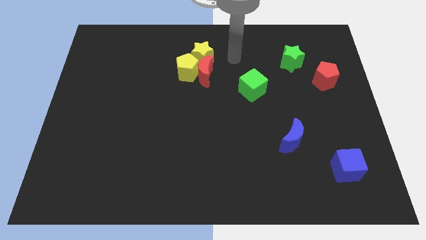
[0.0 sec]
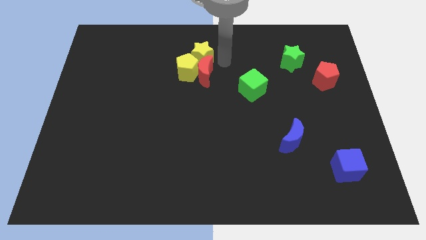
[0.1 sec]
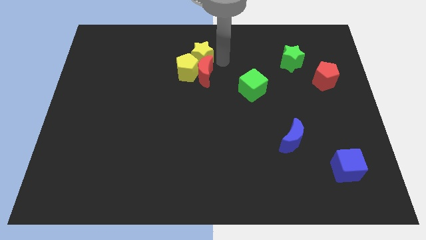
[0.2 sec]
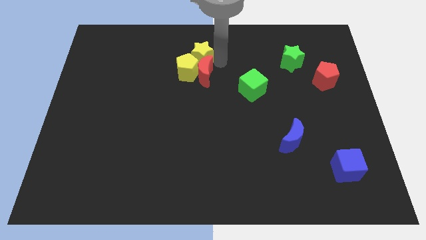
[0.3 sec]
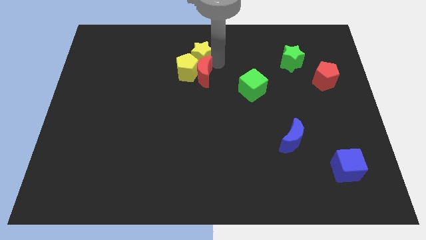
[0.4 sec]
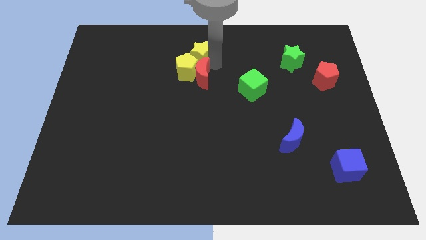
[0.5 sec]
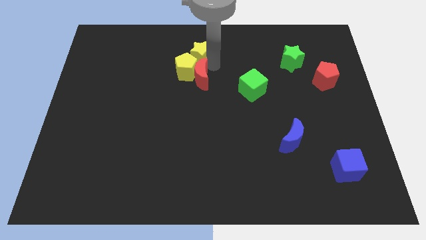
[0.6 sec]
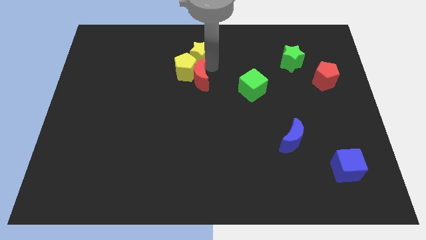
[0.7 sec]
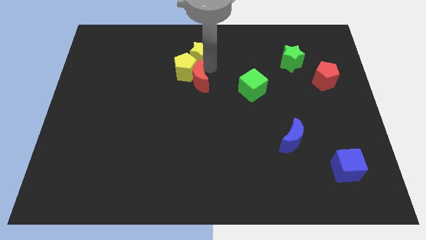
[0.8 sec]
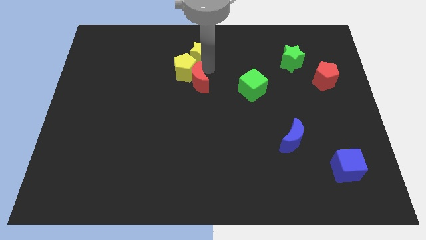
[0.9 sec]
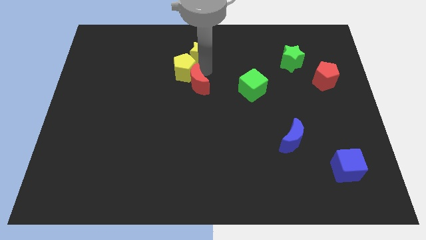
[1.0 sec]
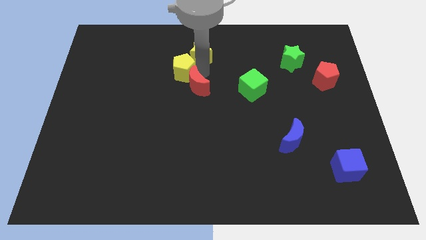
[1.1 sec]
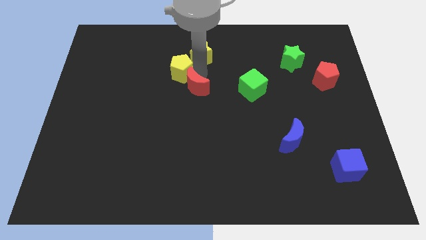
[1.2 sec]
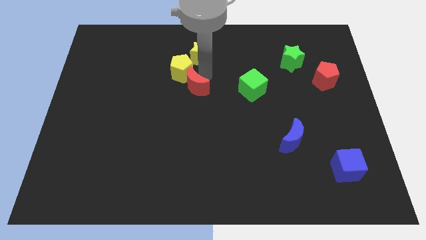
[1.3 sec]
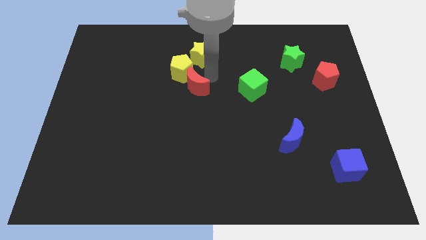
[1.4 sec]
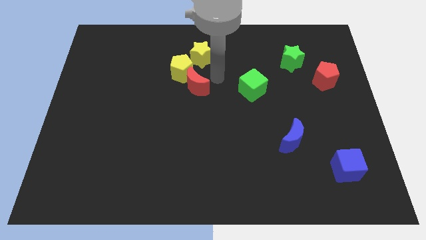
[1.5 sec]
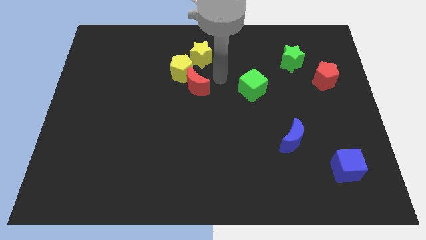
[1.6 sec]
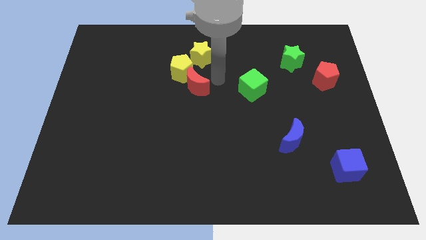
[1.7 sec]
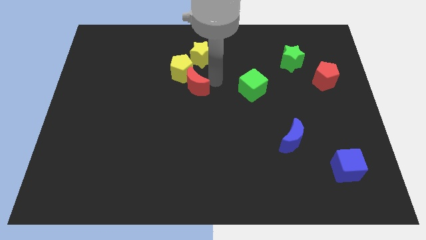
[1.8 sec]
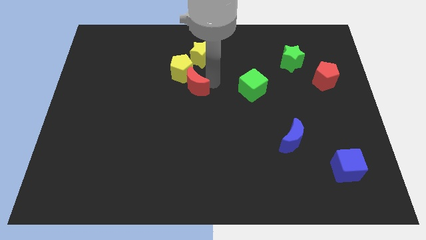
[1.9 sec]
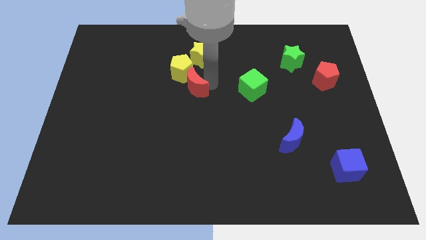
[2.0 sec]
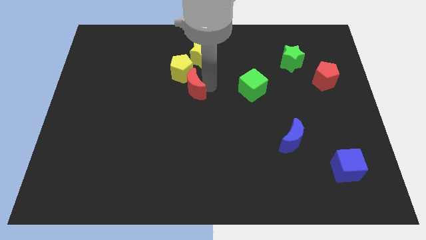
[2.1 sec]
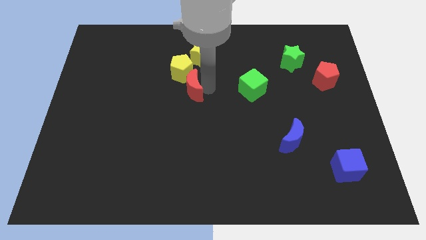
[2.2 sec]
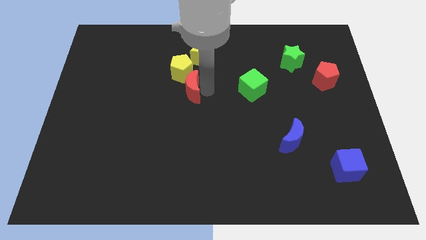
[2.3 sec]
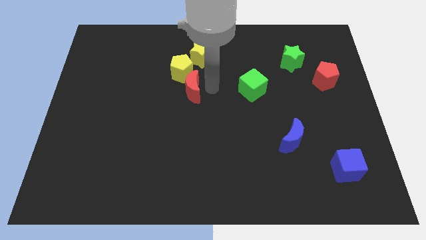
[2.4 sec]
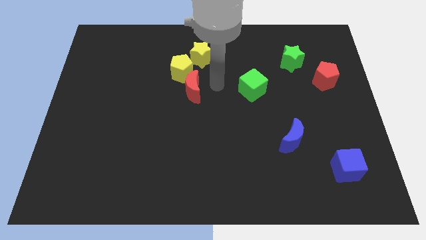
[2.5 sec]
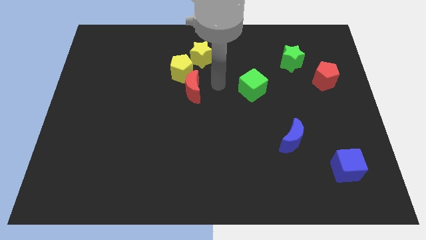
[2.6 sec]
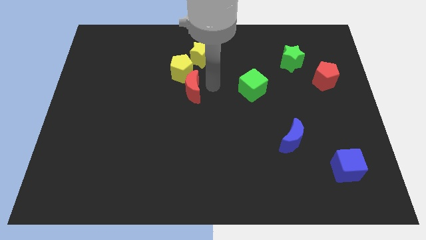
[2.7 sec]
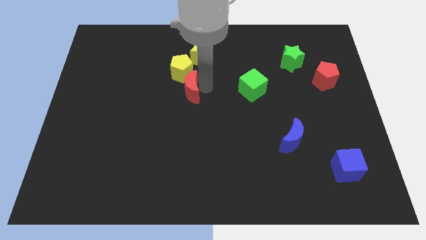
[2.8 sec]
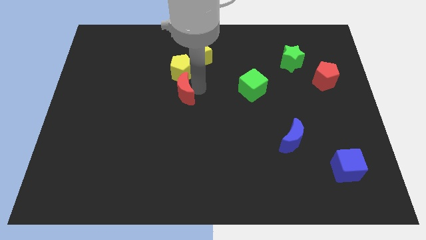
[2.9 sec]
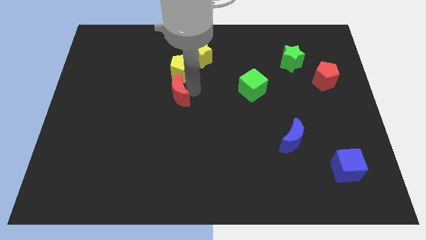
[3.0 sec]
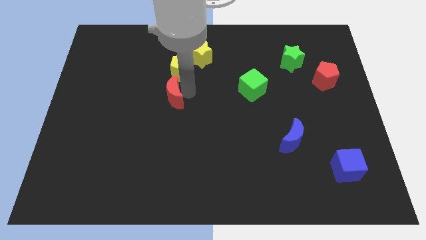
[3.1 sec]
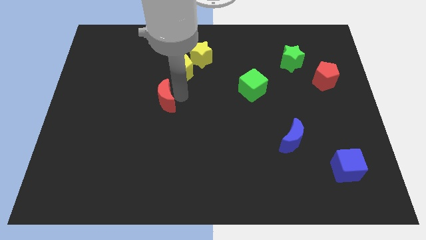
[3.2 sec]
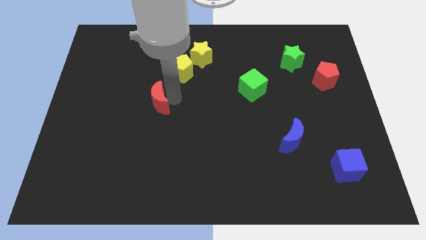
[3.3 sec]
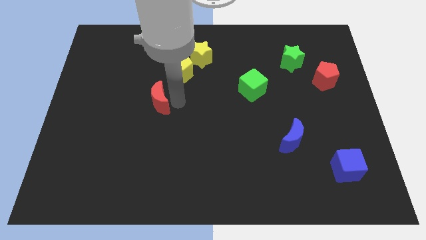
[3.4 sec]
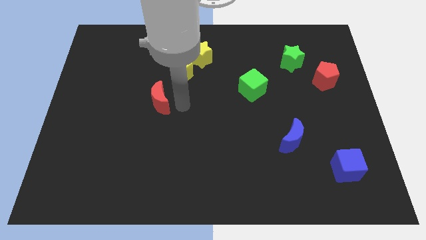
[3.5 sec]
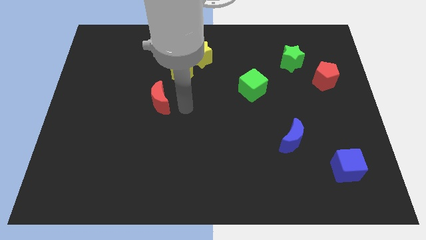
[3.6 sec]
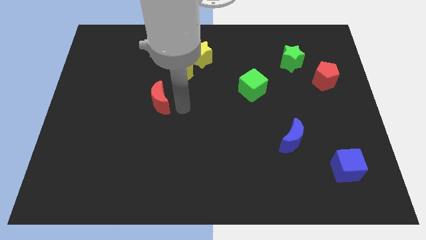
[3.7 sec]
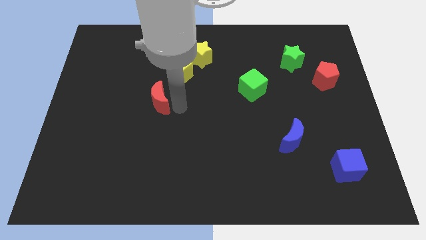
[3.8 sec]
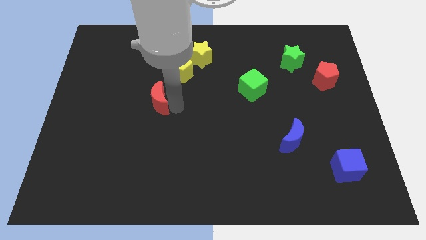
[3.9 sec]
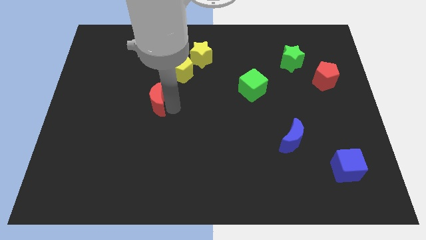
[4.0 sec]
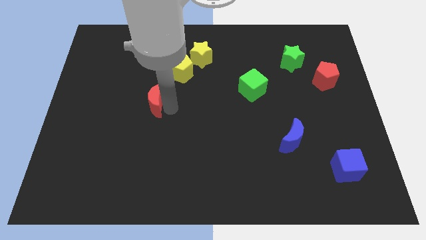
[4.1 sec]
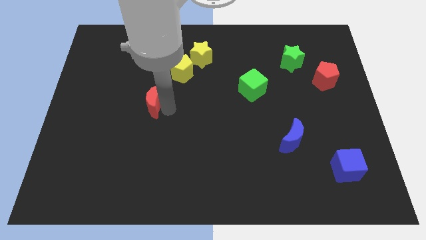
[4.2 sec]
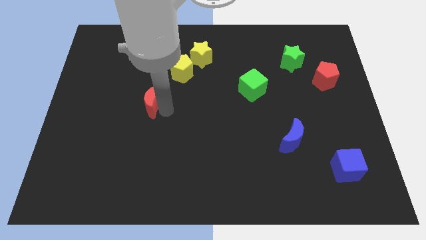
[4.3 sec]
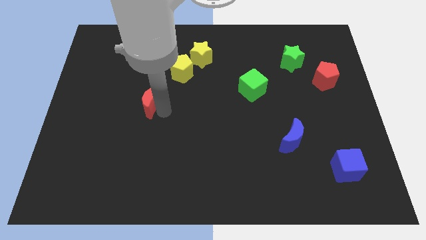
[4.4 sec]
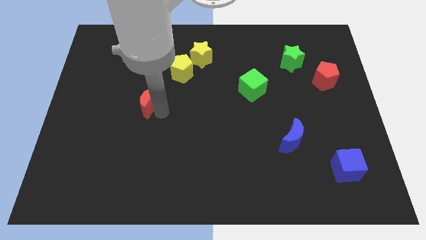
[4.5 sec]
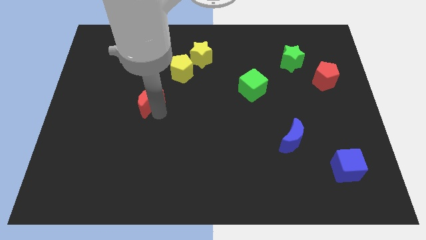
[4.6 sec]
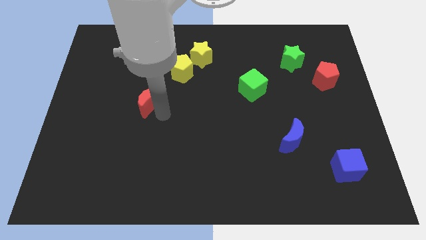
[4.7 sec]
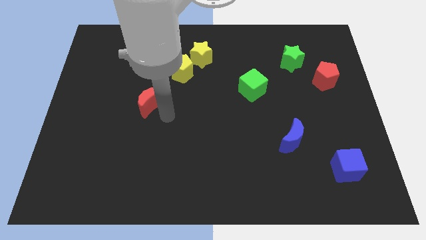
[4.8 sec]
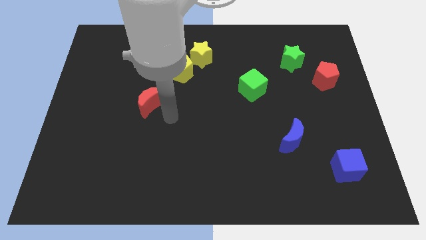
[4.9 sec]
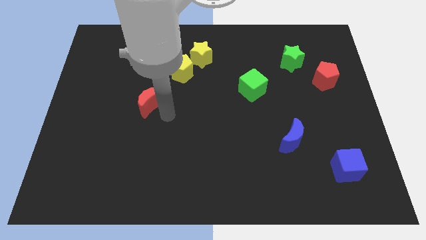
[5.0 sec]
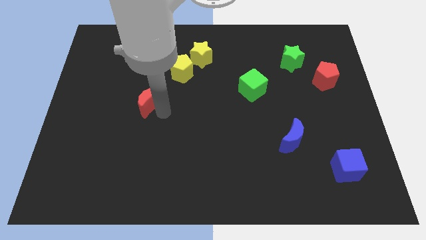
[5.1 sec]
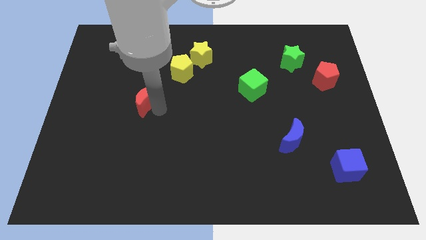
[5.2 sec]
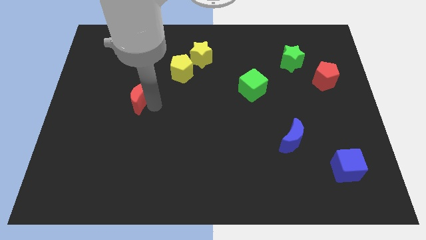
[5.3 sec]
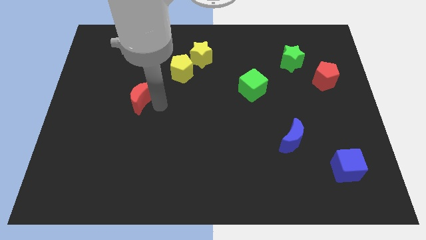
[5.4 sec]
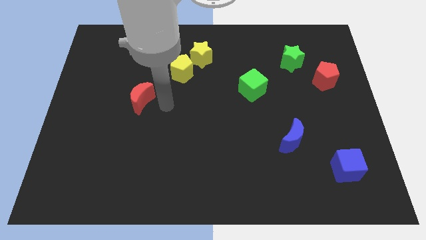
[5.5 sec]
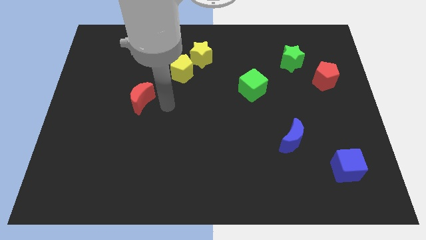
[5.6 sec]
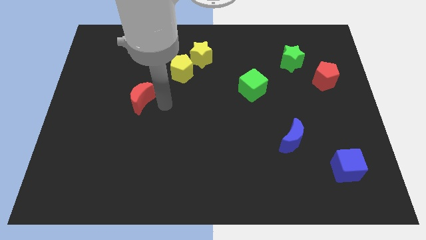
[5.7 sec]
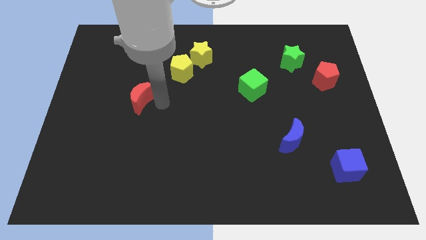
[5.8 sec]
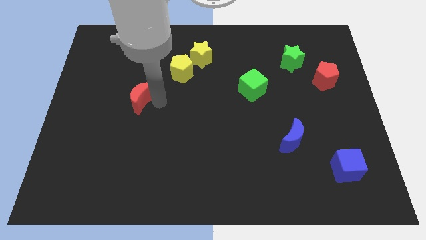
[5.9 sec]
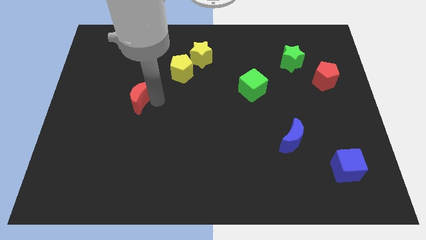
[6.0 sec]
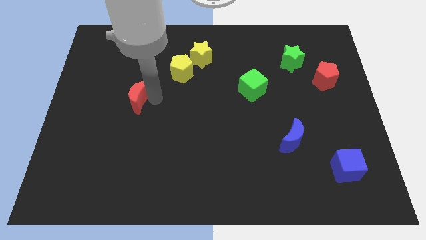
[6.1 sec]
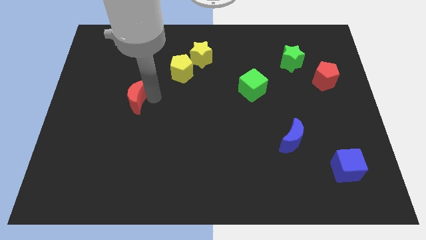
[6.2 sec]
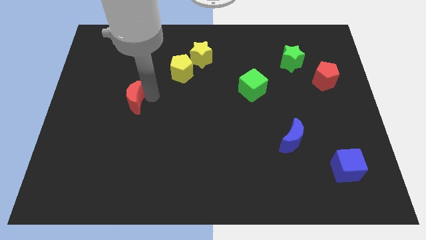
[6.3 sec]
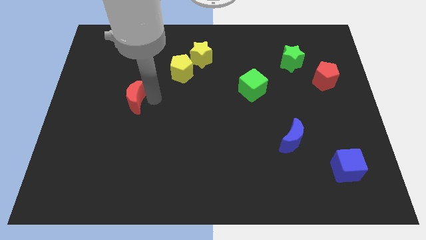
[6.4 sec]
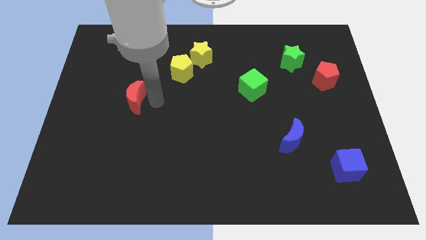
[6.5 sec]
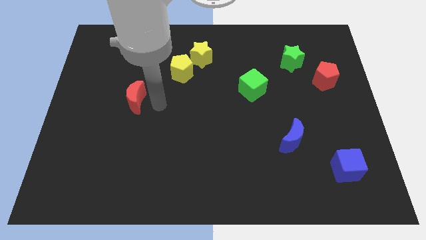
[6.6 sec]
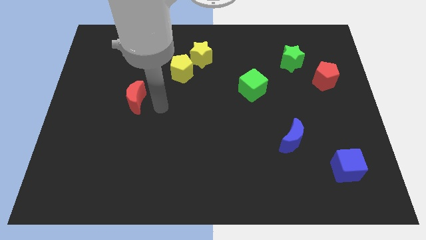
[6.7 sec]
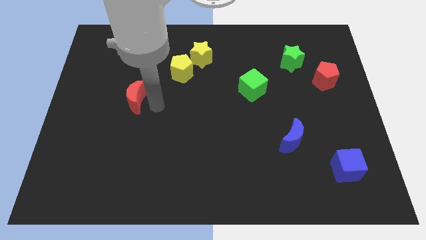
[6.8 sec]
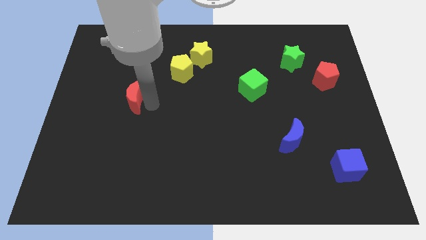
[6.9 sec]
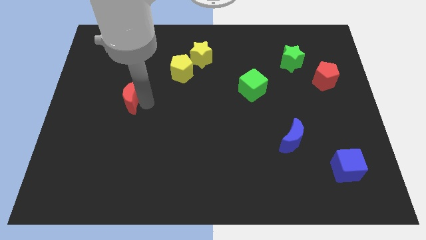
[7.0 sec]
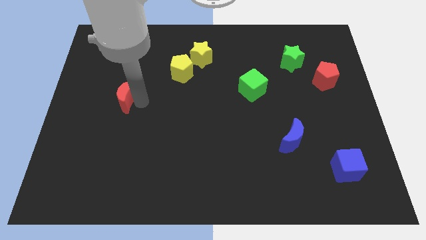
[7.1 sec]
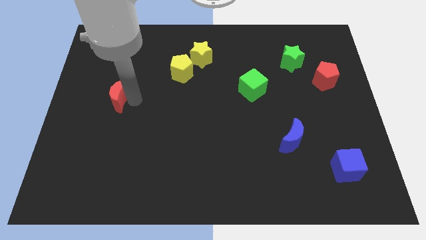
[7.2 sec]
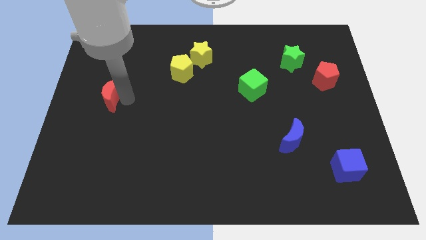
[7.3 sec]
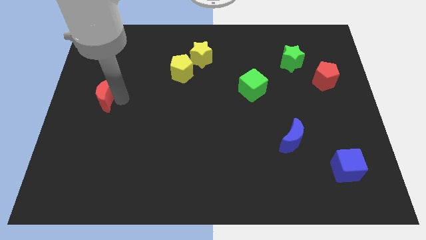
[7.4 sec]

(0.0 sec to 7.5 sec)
move the red moon to the left side
